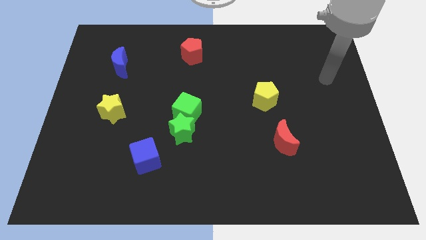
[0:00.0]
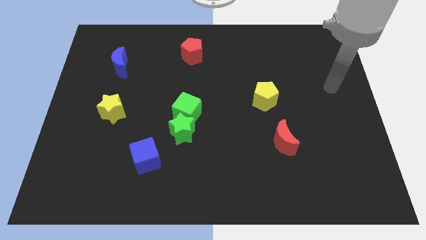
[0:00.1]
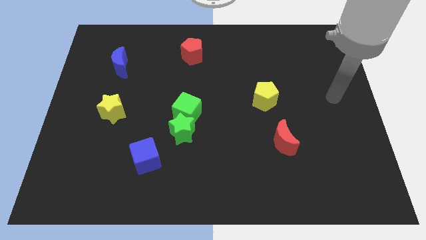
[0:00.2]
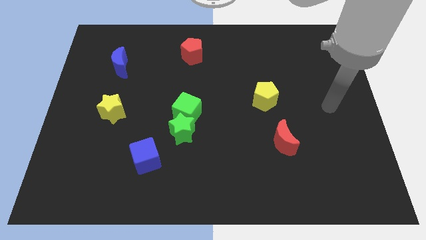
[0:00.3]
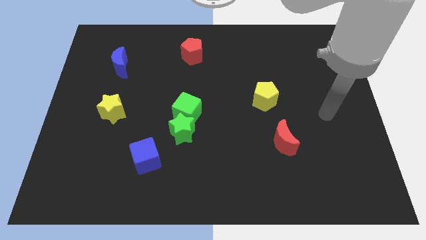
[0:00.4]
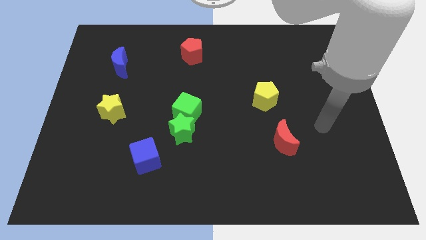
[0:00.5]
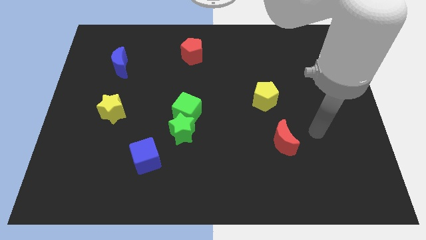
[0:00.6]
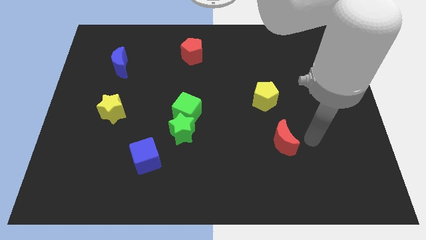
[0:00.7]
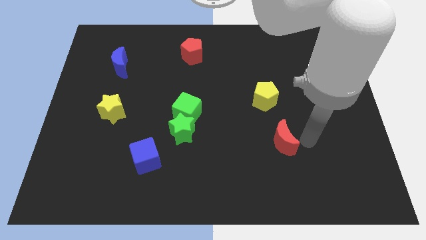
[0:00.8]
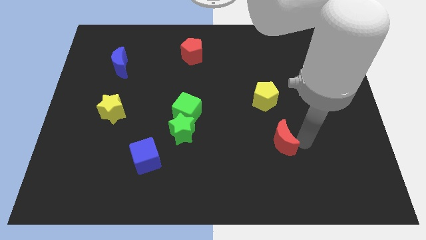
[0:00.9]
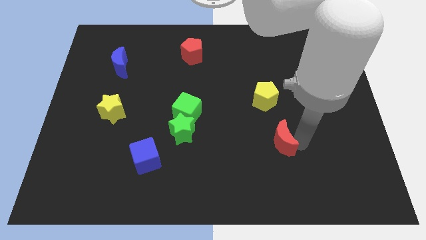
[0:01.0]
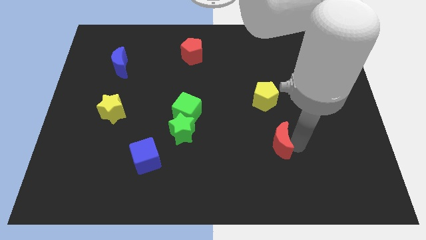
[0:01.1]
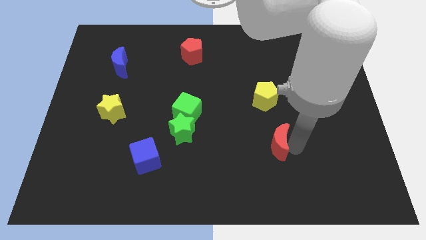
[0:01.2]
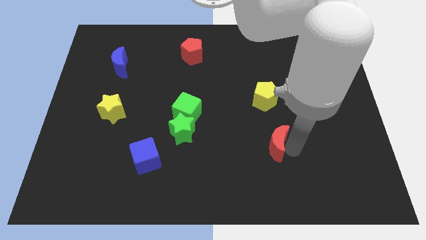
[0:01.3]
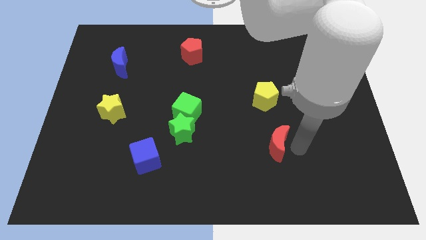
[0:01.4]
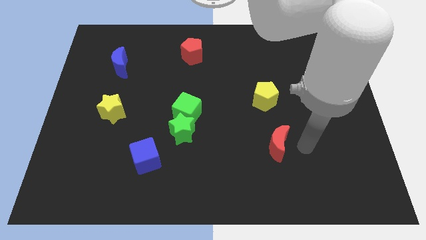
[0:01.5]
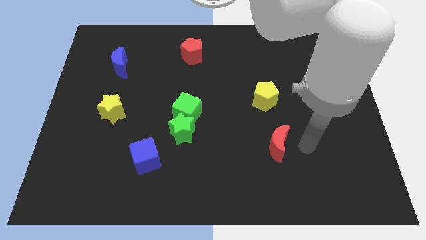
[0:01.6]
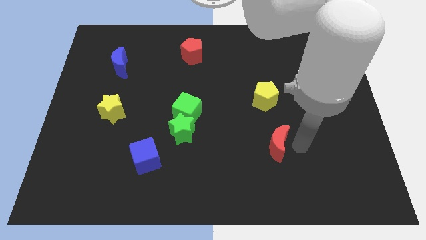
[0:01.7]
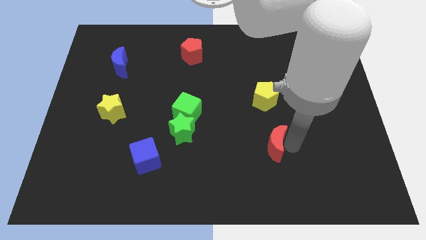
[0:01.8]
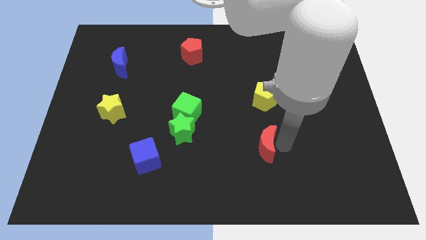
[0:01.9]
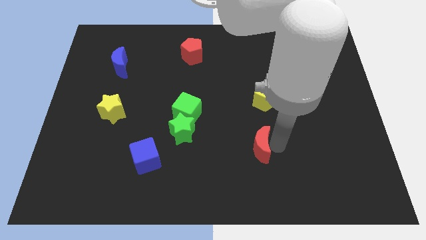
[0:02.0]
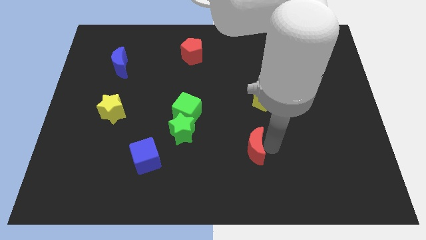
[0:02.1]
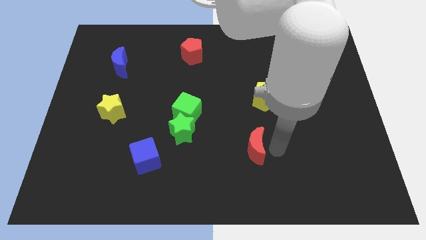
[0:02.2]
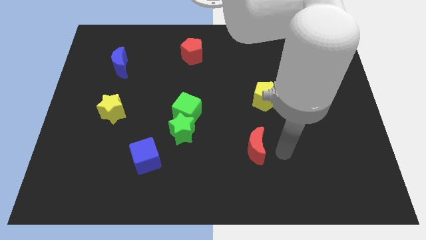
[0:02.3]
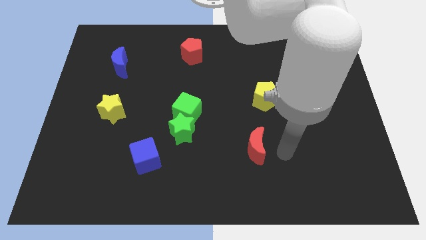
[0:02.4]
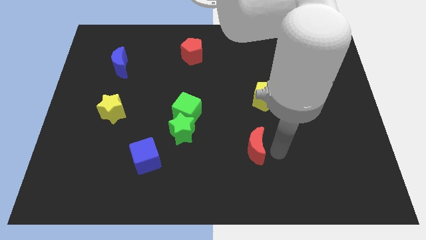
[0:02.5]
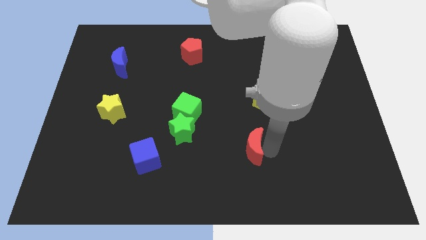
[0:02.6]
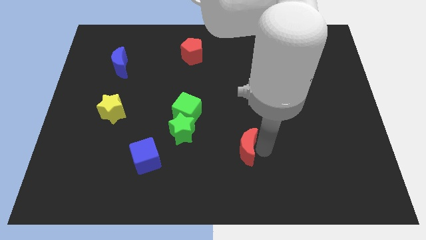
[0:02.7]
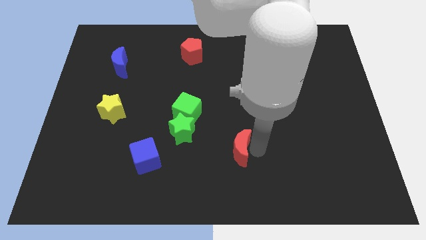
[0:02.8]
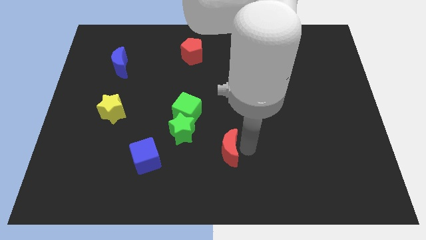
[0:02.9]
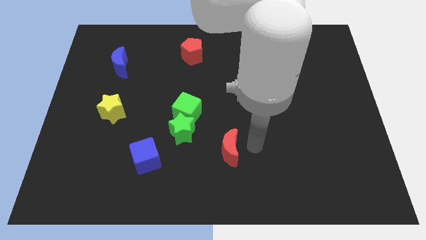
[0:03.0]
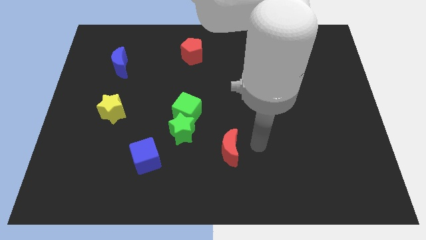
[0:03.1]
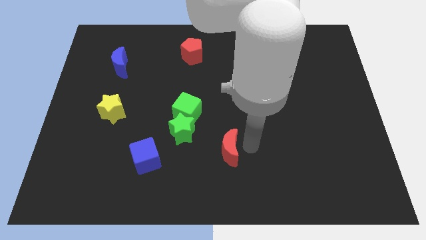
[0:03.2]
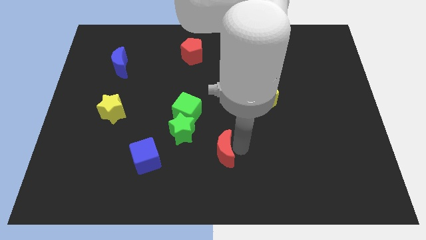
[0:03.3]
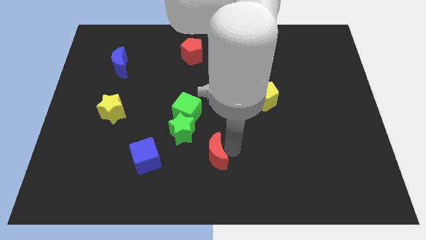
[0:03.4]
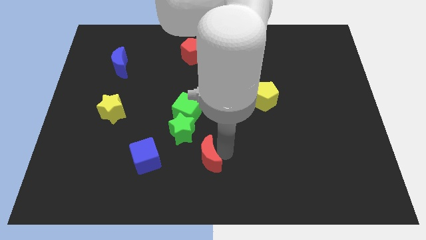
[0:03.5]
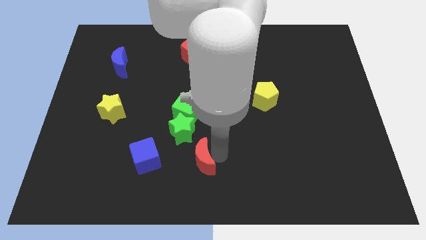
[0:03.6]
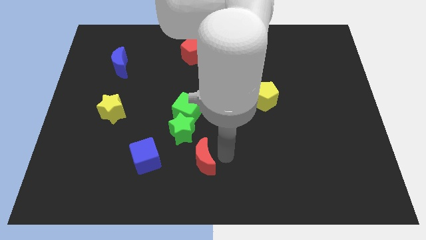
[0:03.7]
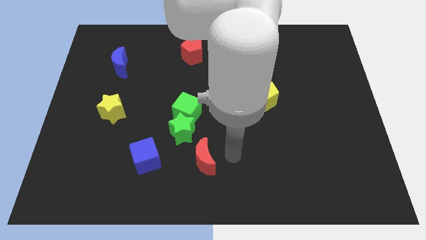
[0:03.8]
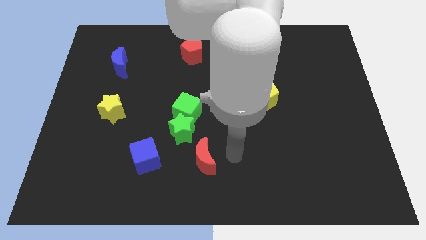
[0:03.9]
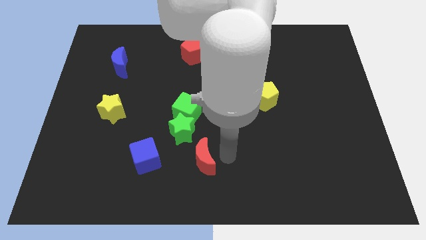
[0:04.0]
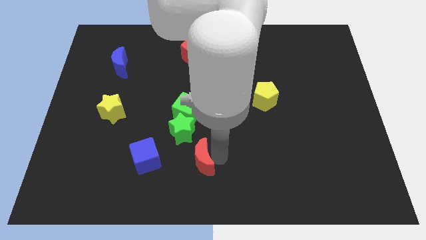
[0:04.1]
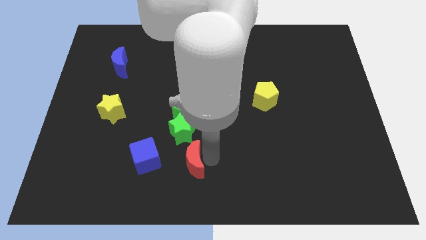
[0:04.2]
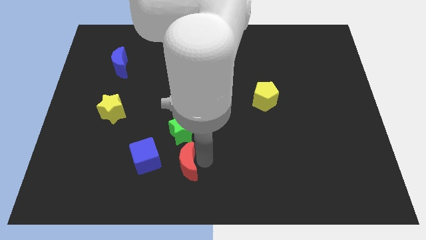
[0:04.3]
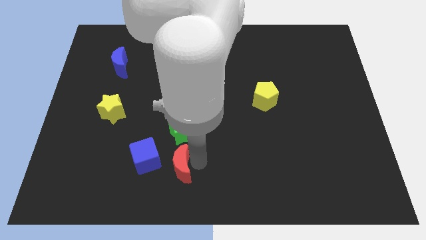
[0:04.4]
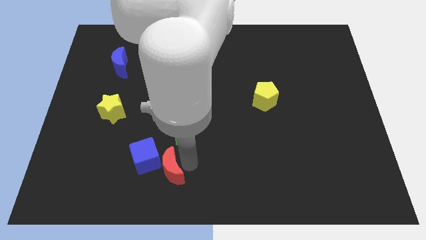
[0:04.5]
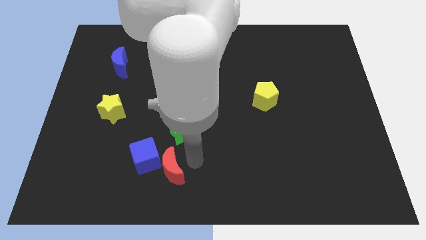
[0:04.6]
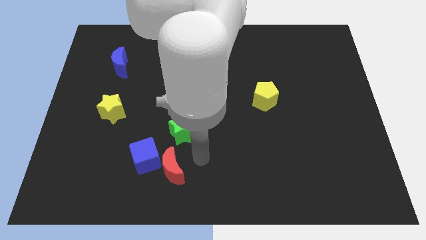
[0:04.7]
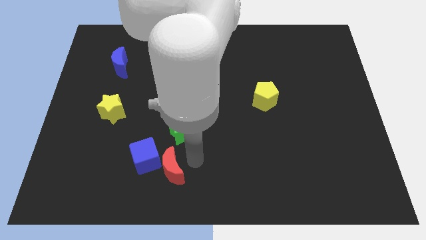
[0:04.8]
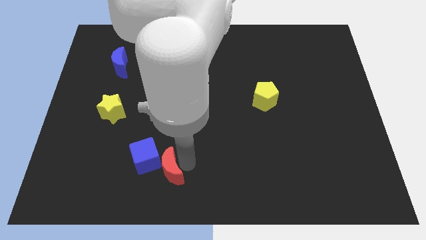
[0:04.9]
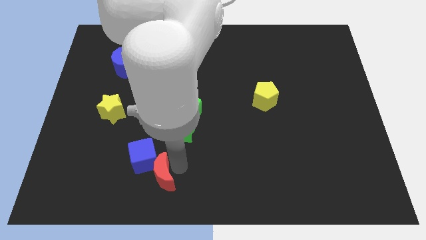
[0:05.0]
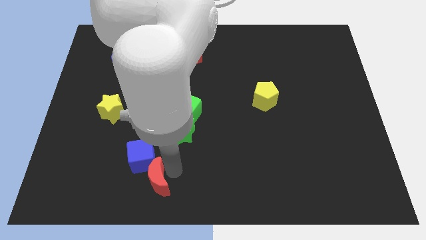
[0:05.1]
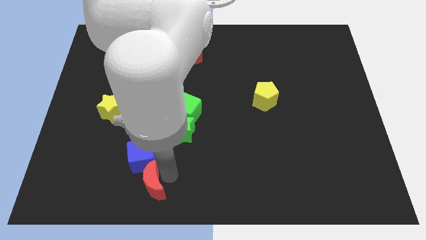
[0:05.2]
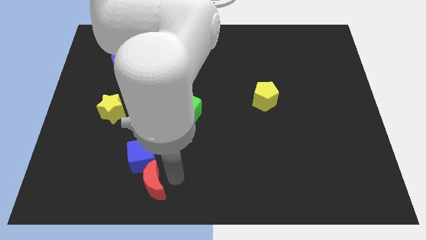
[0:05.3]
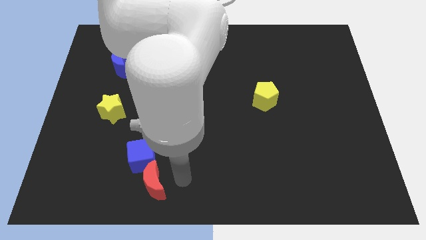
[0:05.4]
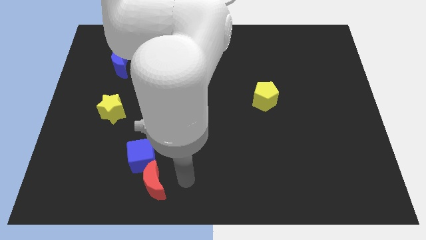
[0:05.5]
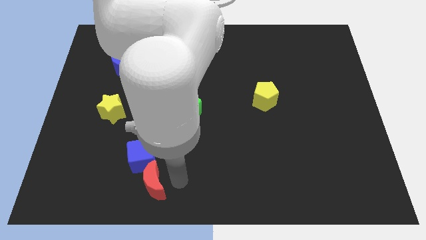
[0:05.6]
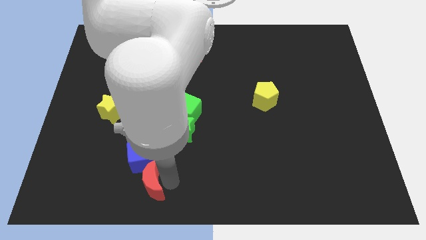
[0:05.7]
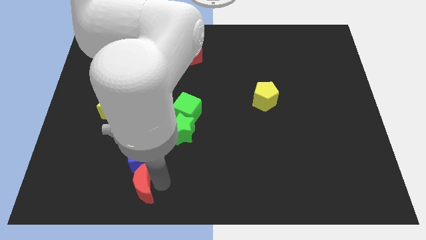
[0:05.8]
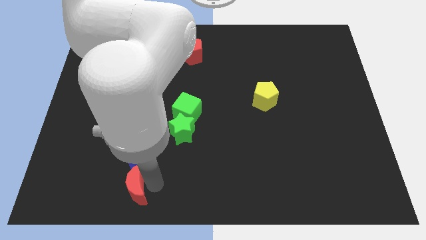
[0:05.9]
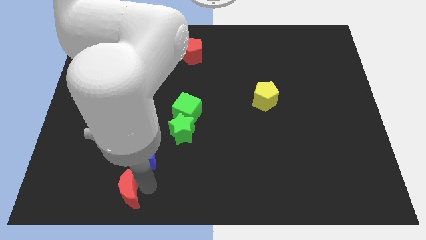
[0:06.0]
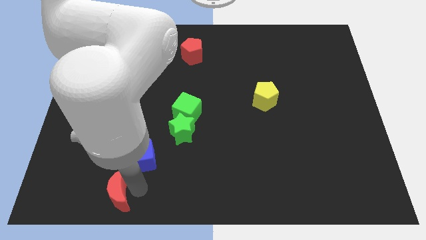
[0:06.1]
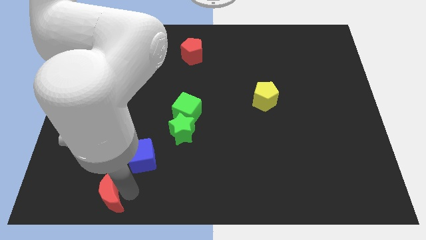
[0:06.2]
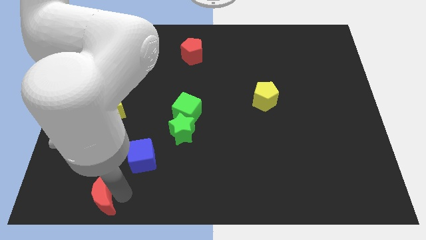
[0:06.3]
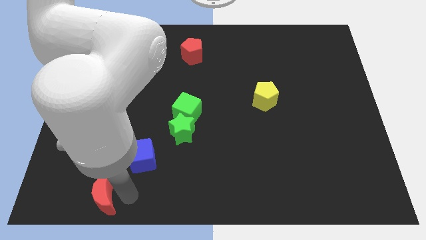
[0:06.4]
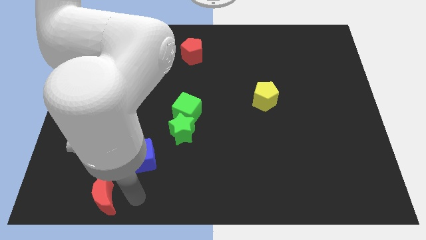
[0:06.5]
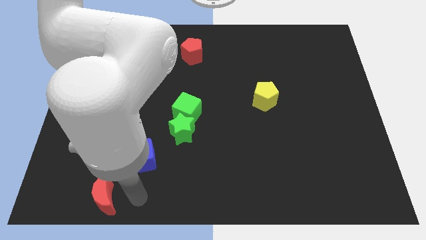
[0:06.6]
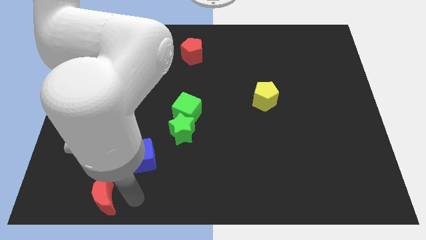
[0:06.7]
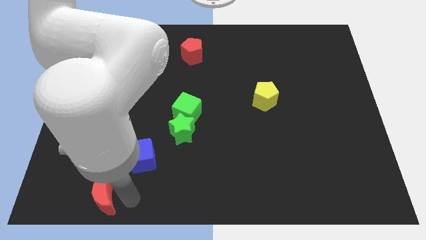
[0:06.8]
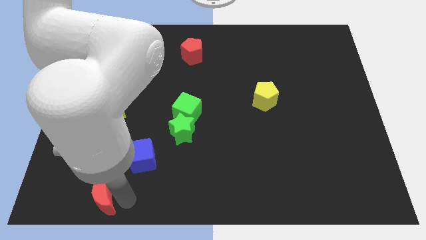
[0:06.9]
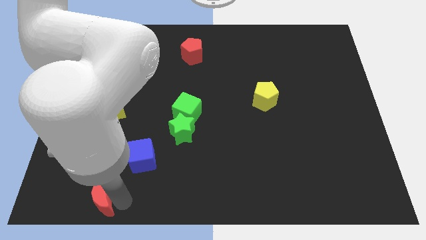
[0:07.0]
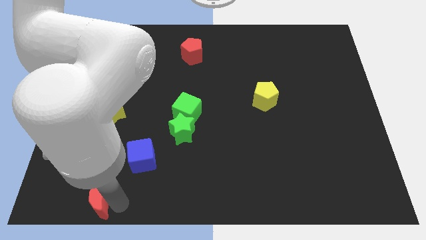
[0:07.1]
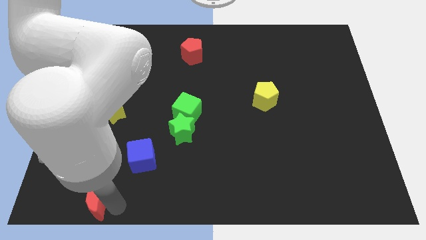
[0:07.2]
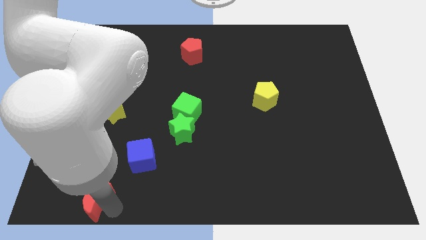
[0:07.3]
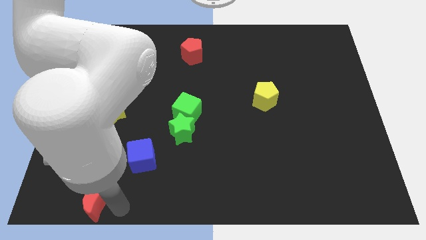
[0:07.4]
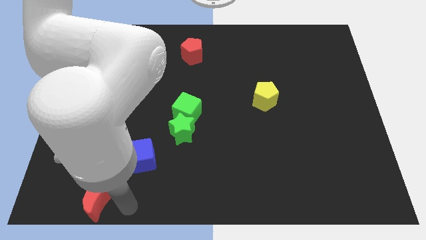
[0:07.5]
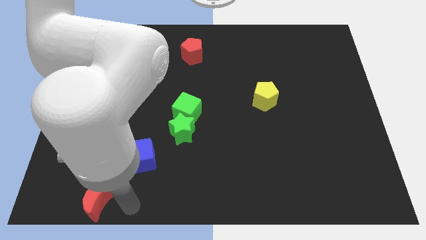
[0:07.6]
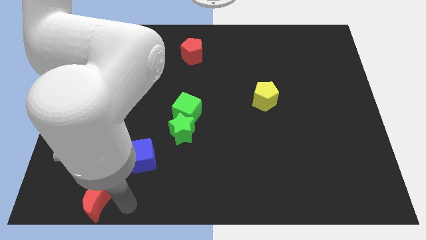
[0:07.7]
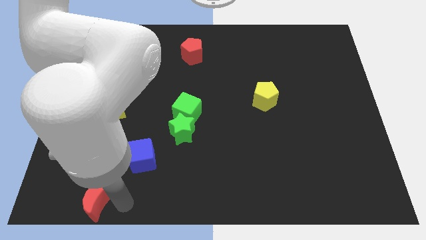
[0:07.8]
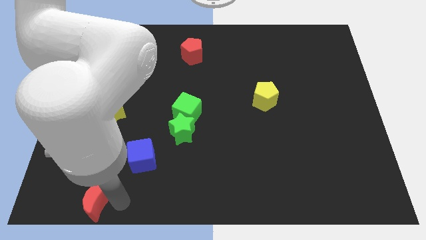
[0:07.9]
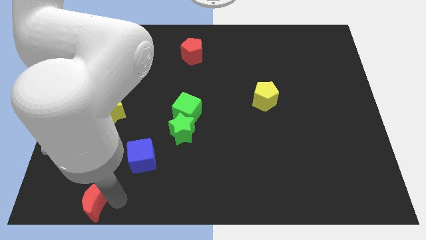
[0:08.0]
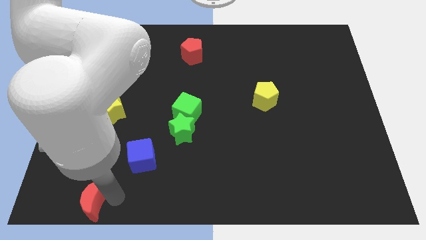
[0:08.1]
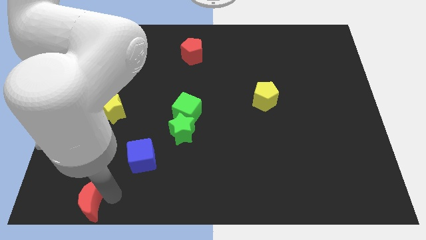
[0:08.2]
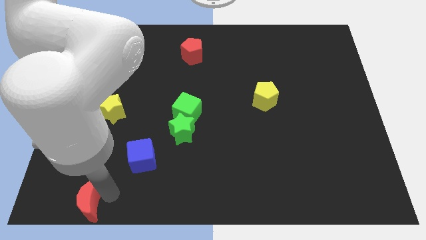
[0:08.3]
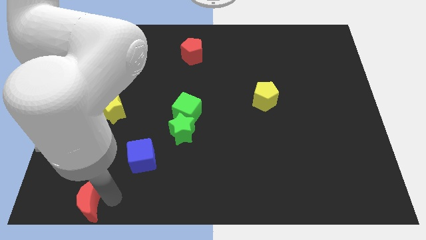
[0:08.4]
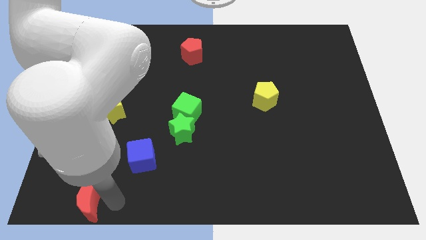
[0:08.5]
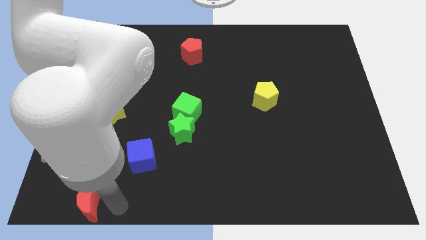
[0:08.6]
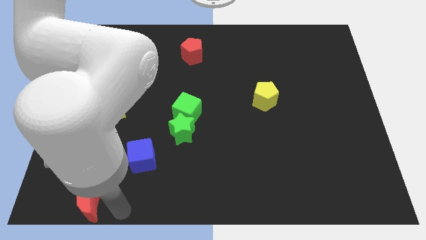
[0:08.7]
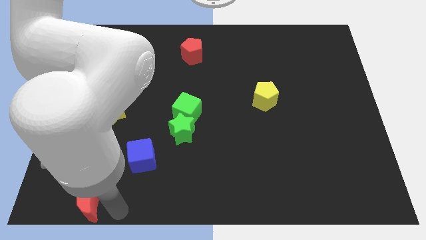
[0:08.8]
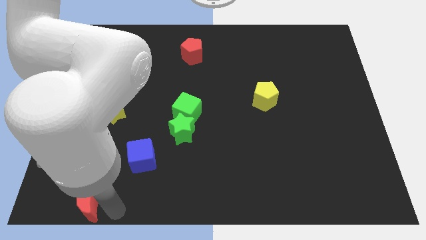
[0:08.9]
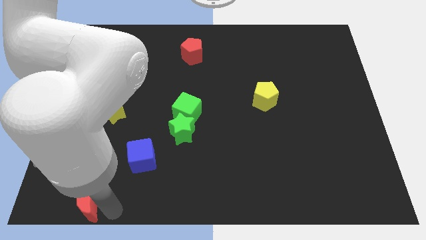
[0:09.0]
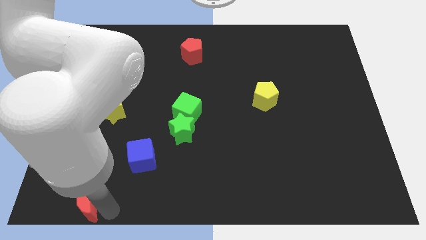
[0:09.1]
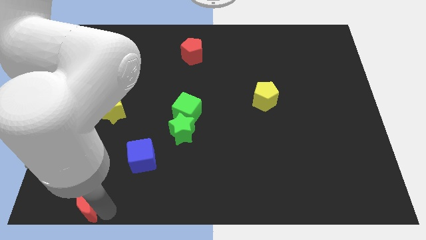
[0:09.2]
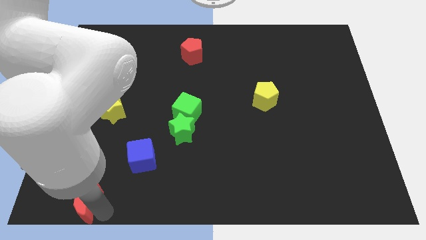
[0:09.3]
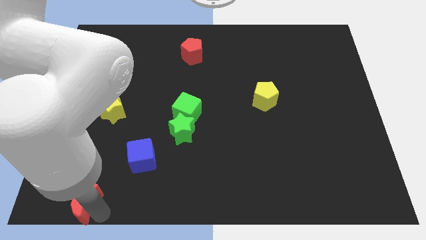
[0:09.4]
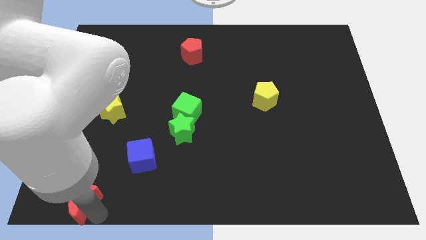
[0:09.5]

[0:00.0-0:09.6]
slide the red moon to the bottom left
